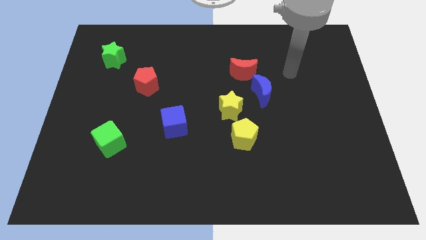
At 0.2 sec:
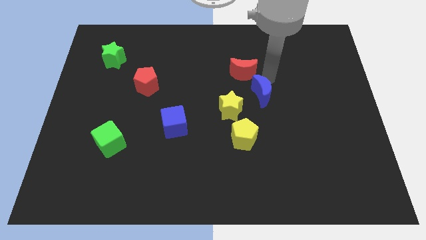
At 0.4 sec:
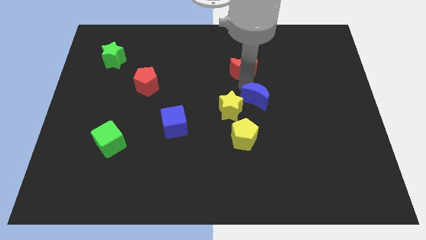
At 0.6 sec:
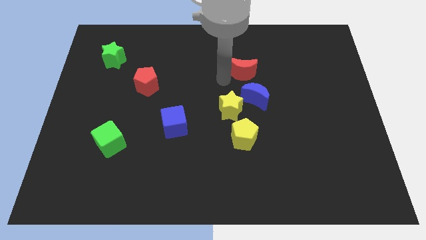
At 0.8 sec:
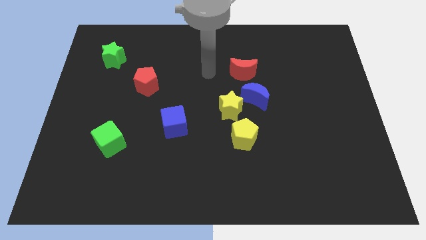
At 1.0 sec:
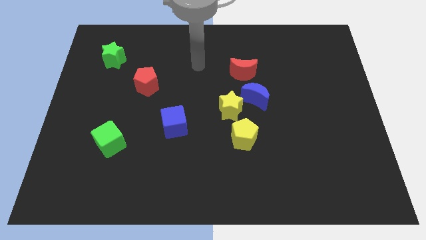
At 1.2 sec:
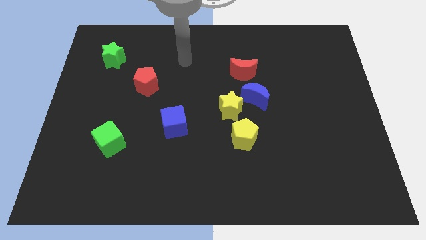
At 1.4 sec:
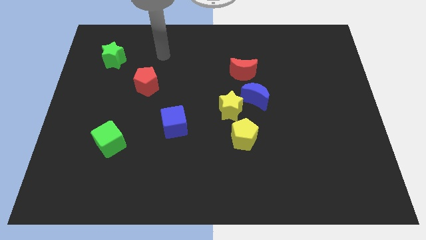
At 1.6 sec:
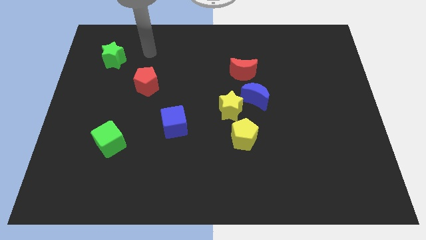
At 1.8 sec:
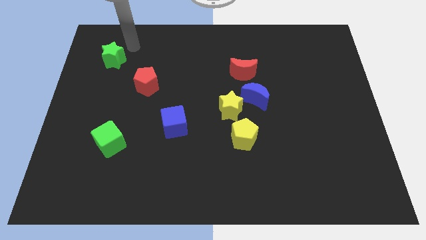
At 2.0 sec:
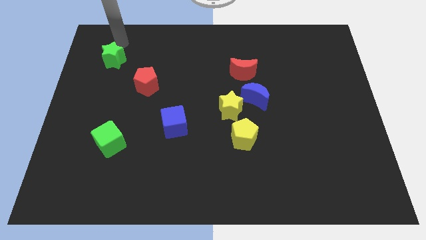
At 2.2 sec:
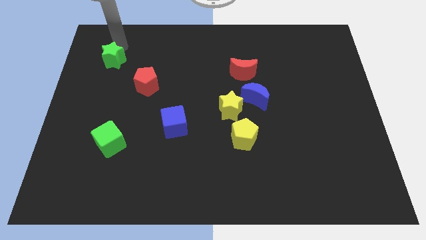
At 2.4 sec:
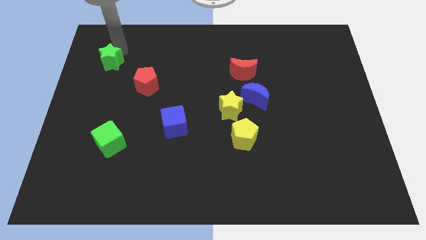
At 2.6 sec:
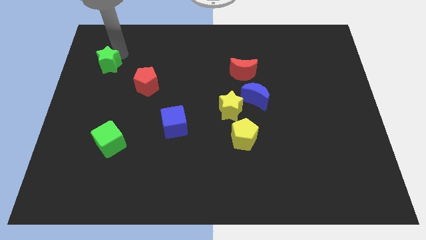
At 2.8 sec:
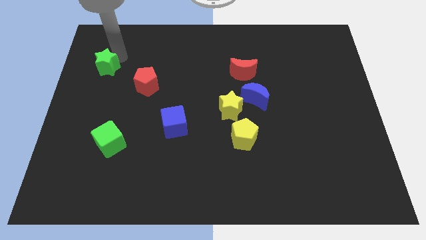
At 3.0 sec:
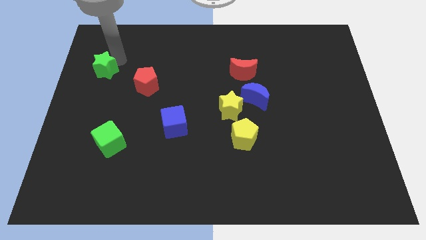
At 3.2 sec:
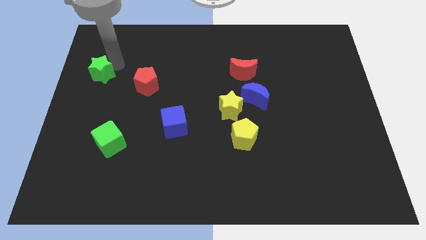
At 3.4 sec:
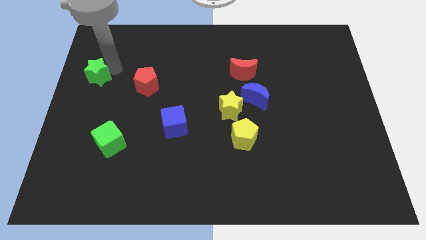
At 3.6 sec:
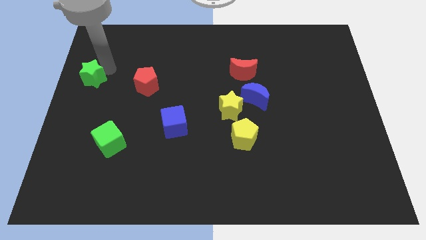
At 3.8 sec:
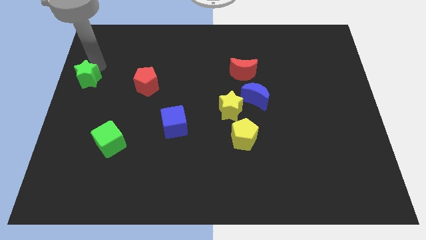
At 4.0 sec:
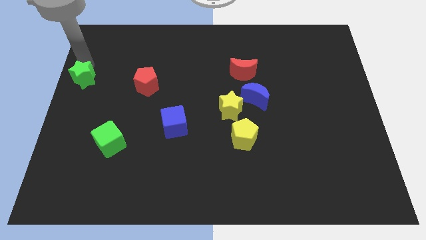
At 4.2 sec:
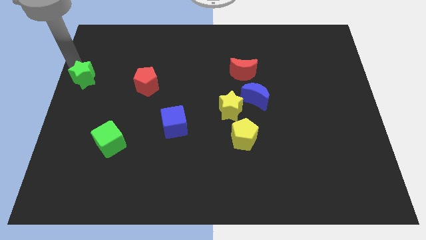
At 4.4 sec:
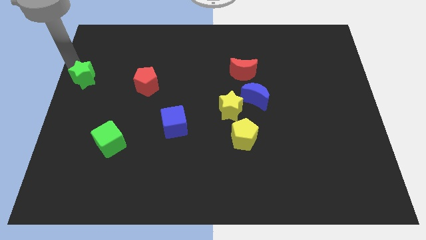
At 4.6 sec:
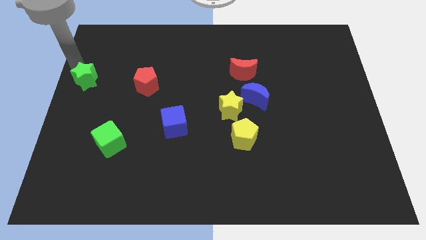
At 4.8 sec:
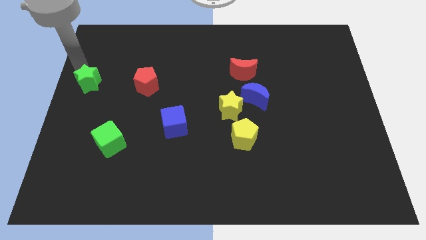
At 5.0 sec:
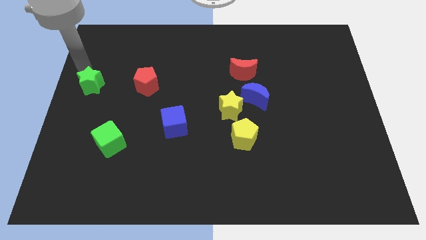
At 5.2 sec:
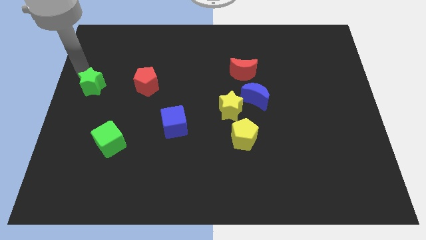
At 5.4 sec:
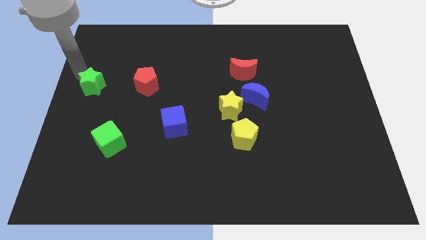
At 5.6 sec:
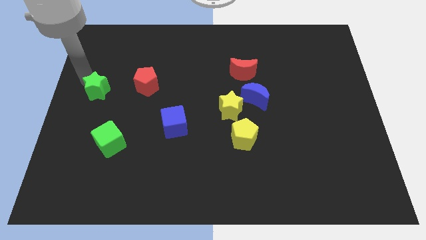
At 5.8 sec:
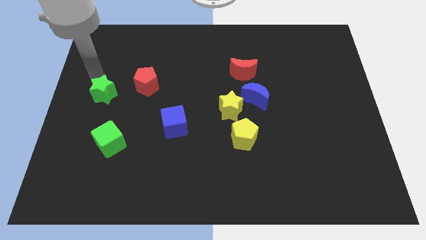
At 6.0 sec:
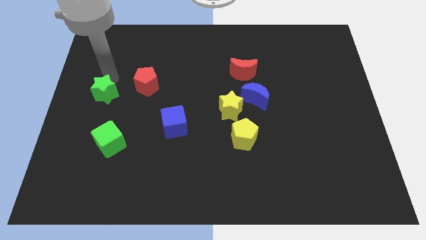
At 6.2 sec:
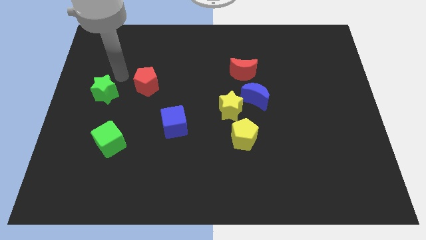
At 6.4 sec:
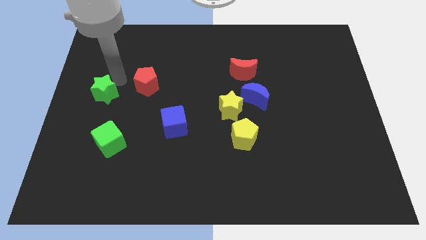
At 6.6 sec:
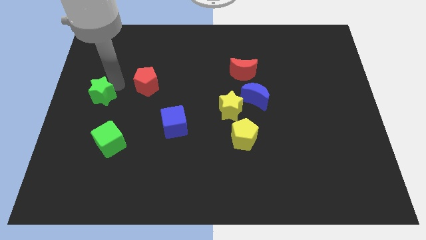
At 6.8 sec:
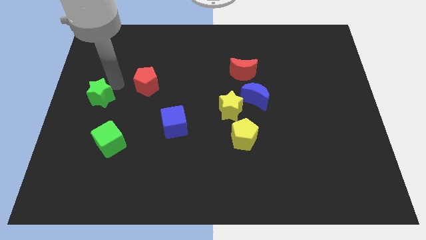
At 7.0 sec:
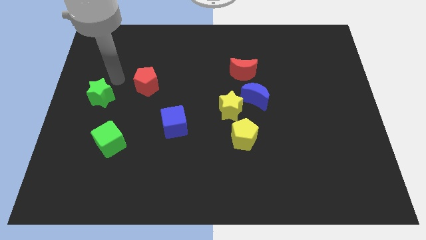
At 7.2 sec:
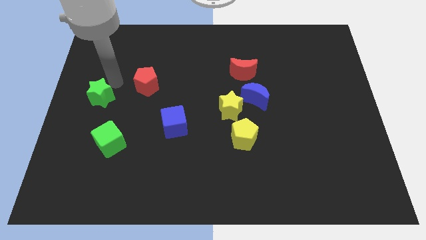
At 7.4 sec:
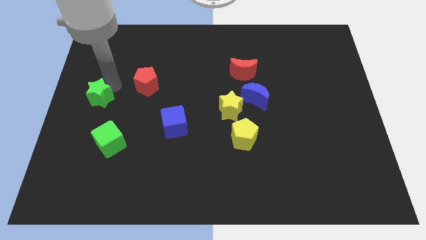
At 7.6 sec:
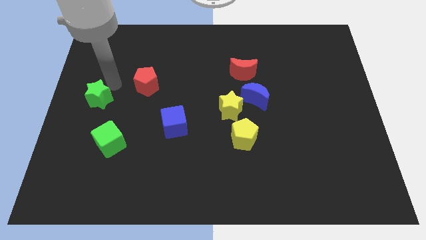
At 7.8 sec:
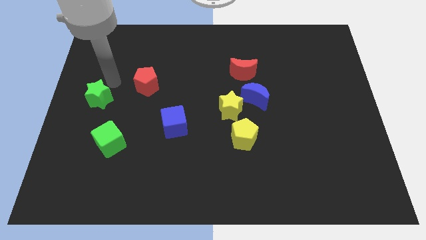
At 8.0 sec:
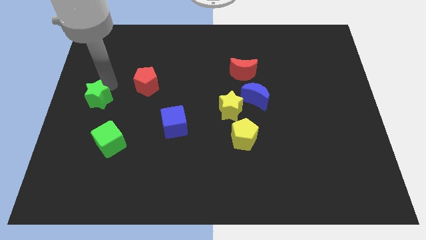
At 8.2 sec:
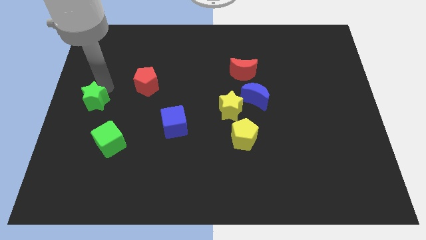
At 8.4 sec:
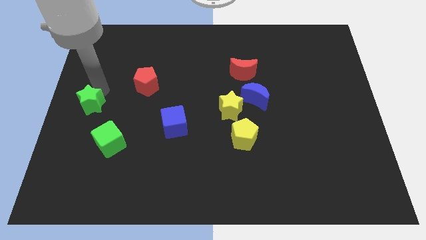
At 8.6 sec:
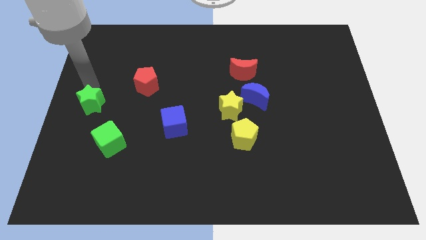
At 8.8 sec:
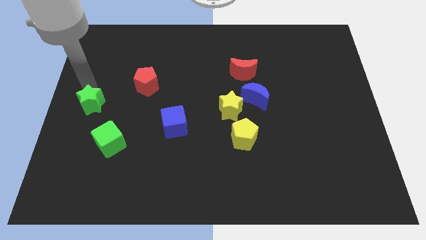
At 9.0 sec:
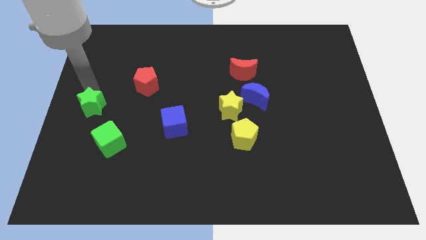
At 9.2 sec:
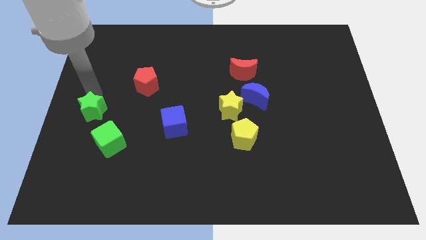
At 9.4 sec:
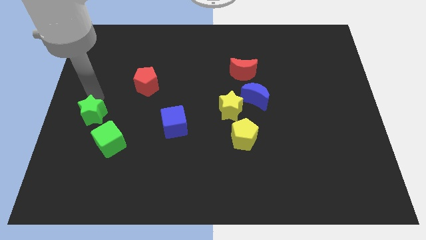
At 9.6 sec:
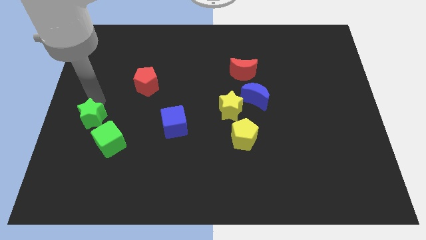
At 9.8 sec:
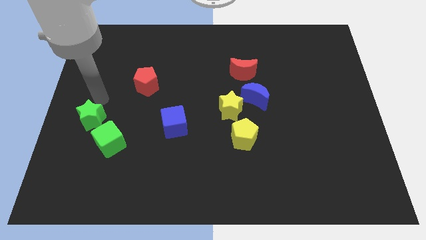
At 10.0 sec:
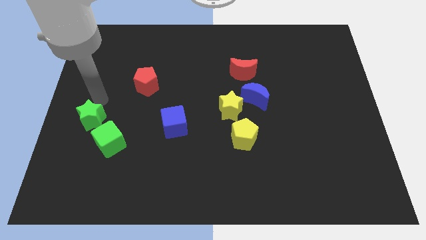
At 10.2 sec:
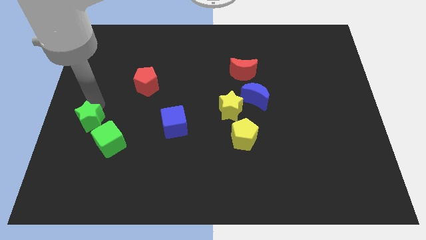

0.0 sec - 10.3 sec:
slide the green star down

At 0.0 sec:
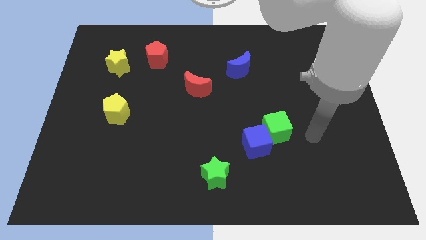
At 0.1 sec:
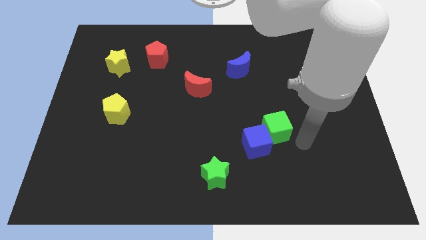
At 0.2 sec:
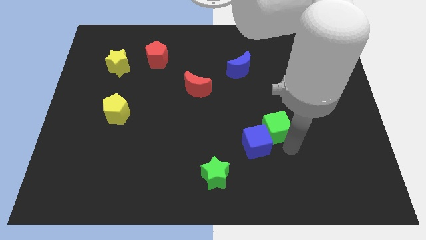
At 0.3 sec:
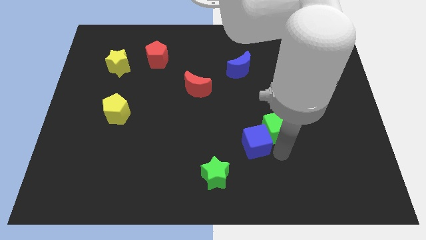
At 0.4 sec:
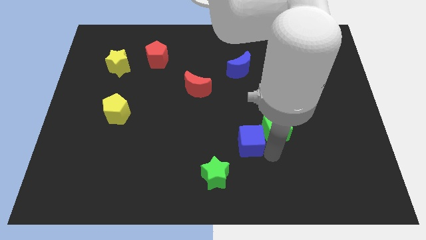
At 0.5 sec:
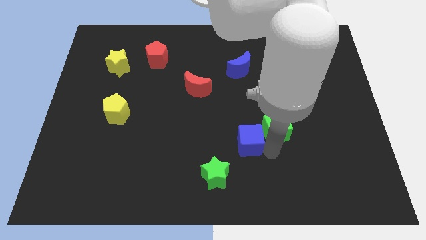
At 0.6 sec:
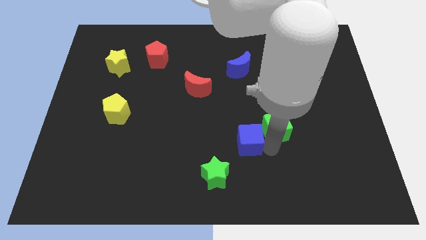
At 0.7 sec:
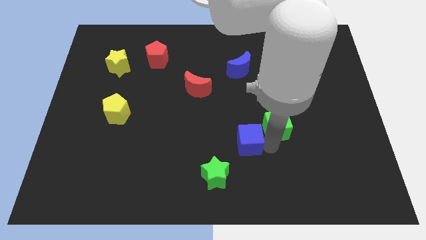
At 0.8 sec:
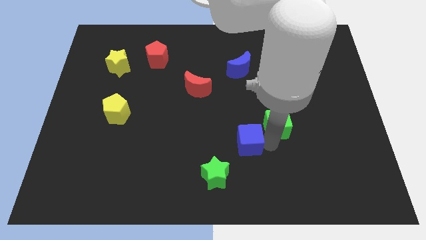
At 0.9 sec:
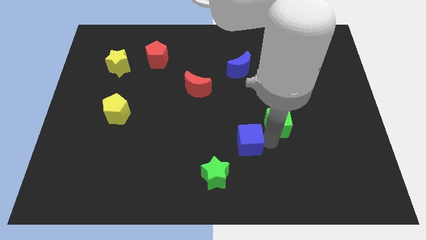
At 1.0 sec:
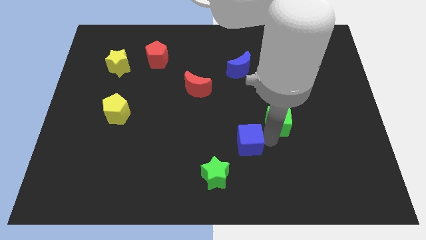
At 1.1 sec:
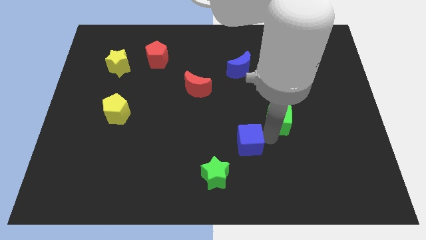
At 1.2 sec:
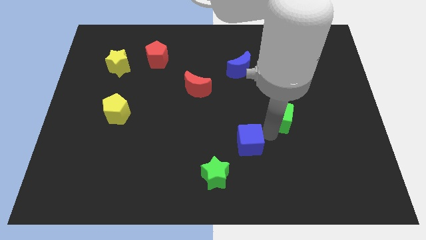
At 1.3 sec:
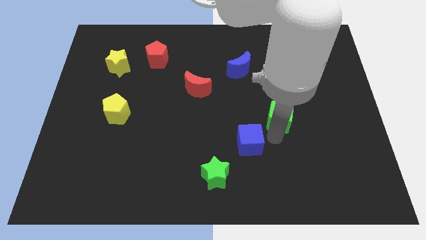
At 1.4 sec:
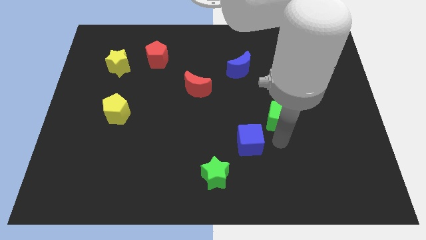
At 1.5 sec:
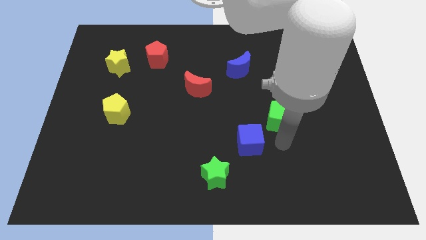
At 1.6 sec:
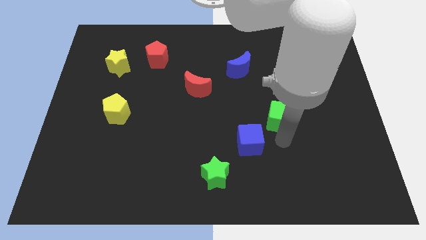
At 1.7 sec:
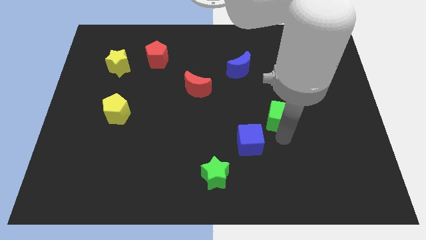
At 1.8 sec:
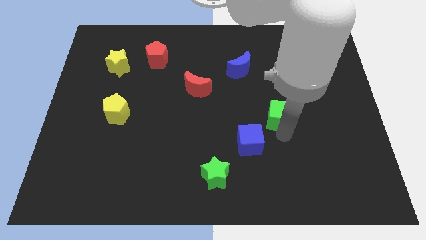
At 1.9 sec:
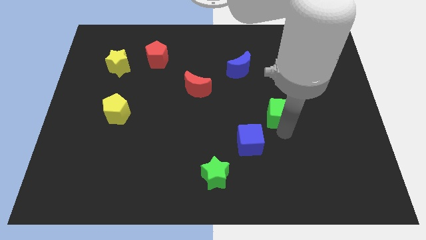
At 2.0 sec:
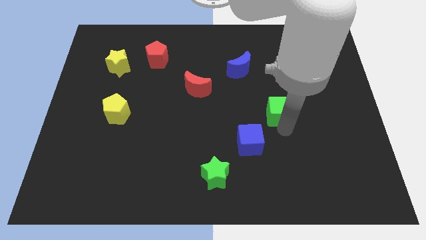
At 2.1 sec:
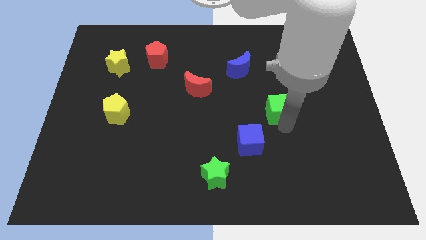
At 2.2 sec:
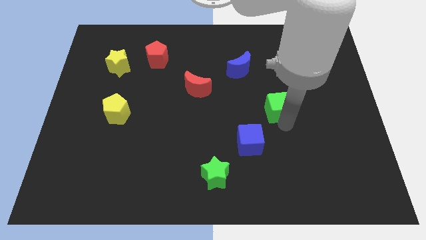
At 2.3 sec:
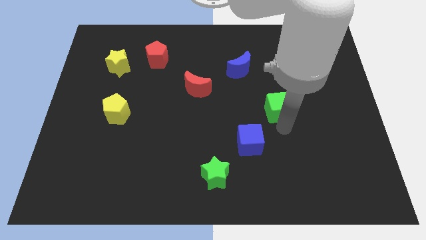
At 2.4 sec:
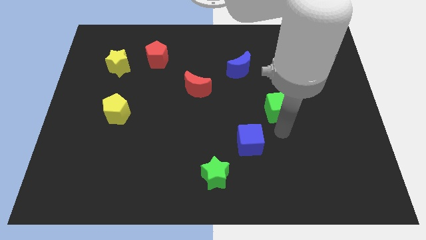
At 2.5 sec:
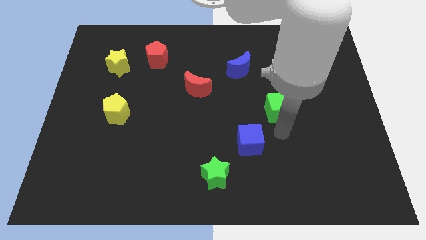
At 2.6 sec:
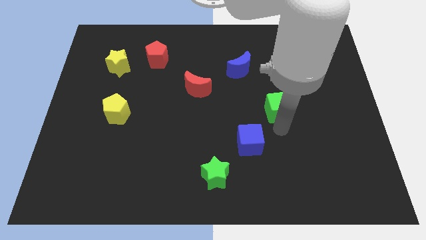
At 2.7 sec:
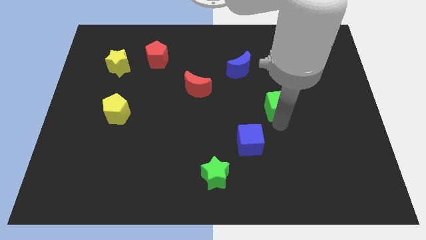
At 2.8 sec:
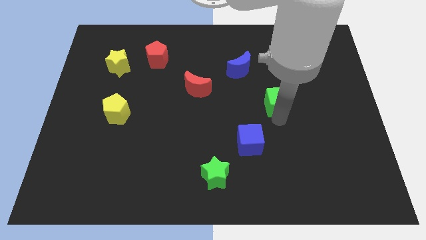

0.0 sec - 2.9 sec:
push the green cube a little upwards
